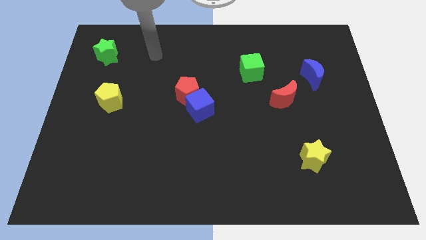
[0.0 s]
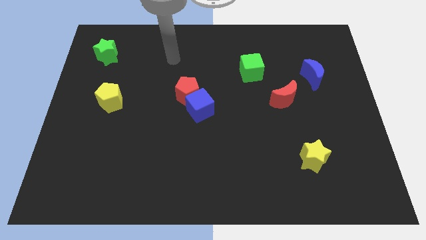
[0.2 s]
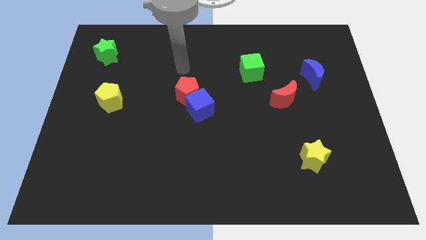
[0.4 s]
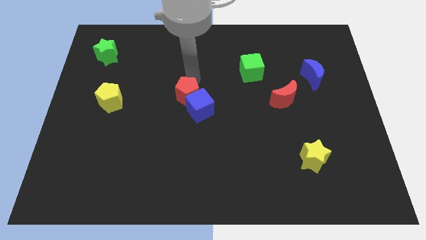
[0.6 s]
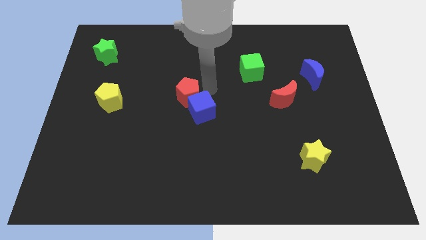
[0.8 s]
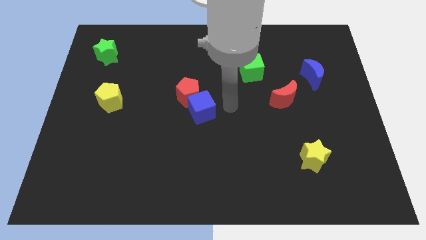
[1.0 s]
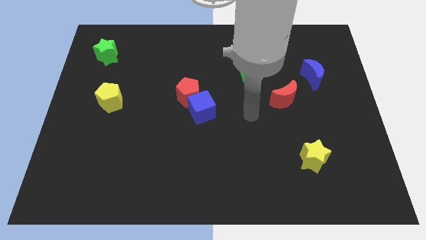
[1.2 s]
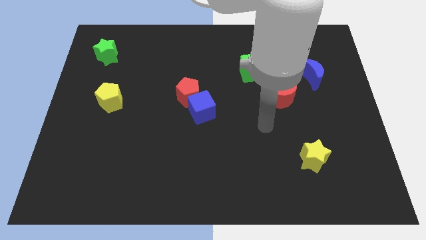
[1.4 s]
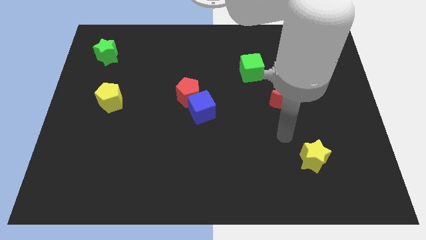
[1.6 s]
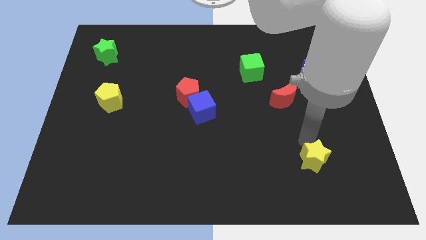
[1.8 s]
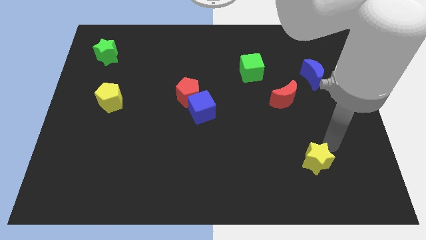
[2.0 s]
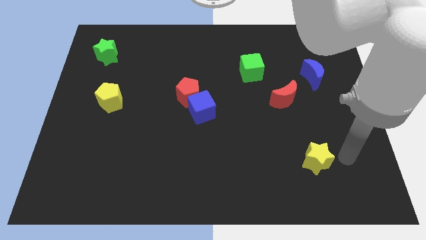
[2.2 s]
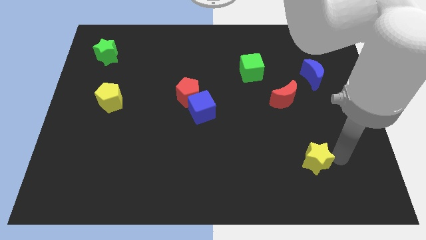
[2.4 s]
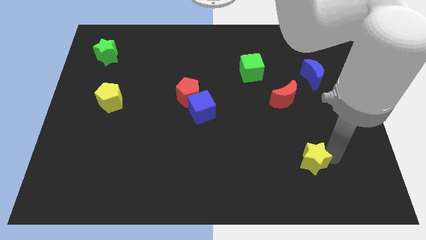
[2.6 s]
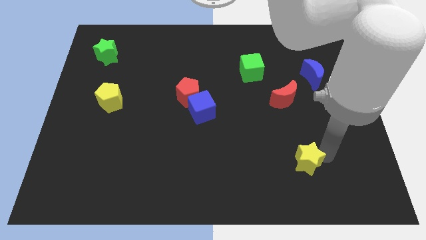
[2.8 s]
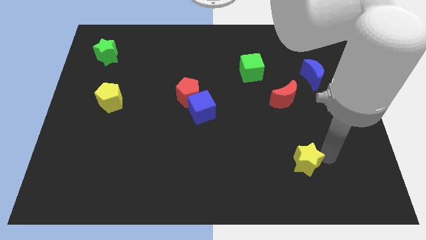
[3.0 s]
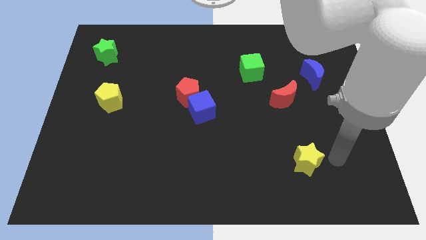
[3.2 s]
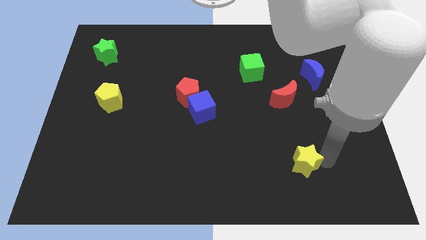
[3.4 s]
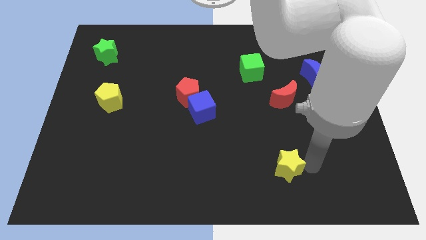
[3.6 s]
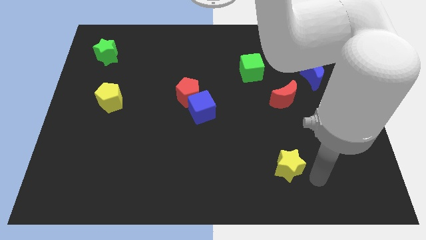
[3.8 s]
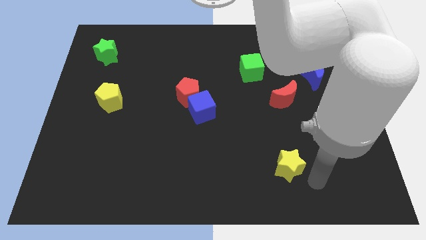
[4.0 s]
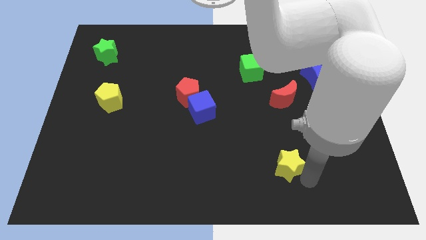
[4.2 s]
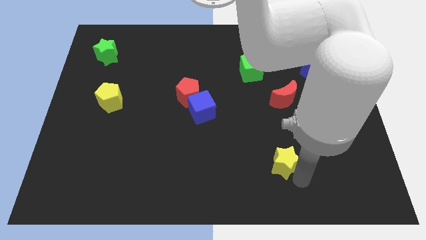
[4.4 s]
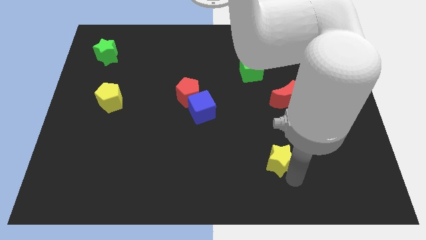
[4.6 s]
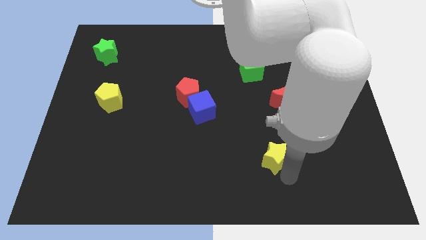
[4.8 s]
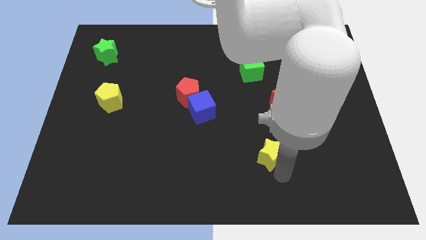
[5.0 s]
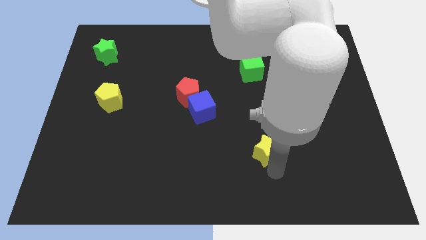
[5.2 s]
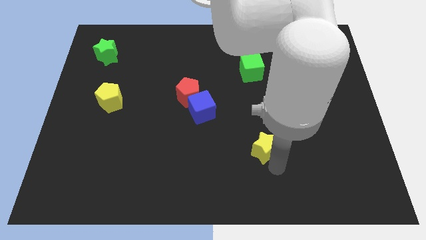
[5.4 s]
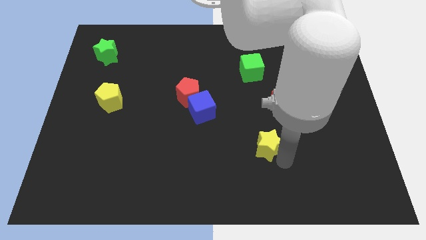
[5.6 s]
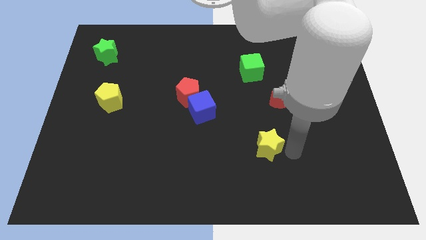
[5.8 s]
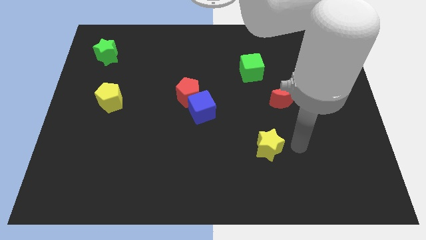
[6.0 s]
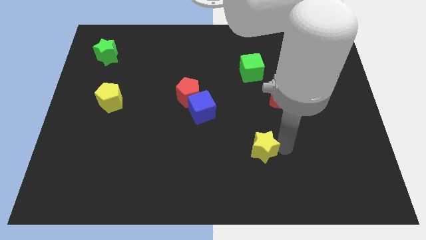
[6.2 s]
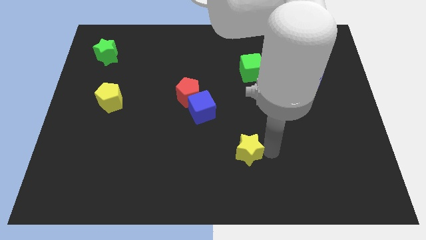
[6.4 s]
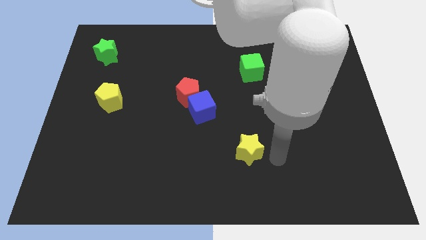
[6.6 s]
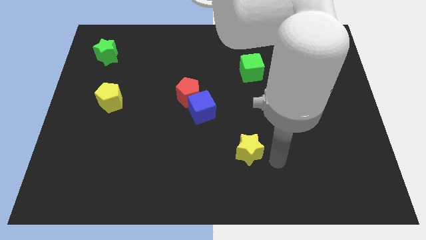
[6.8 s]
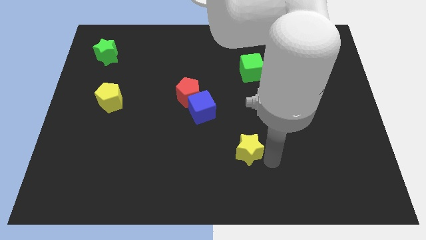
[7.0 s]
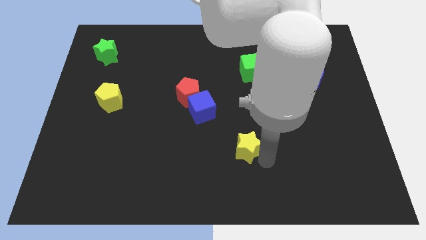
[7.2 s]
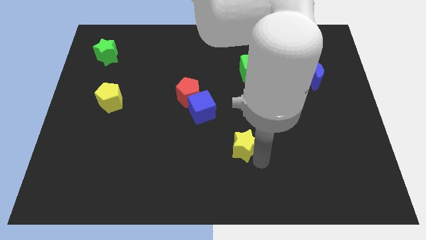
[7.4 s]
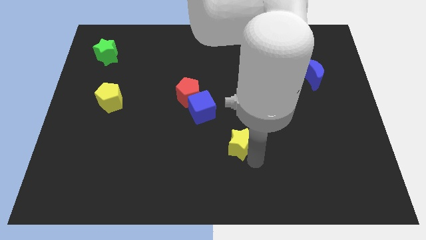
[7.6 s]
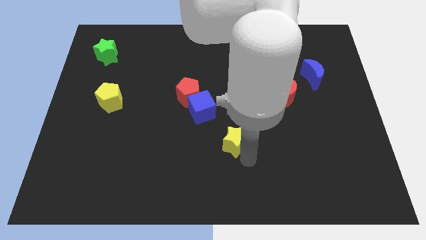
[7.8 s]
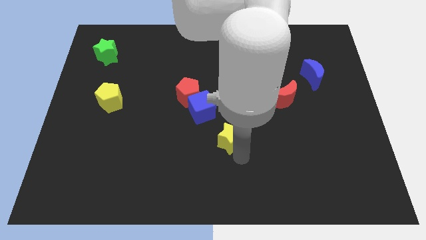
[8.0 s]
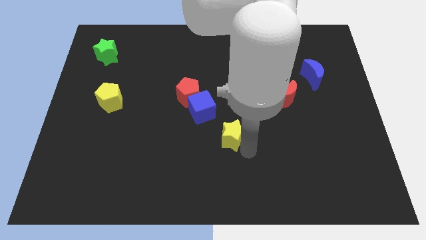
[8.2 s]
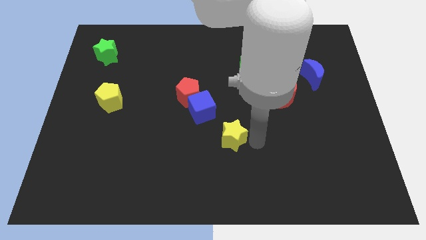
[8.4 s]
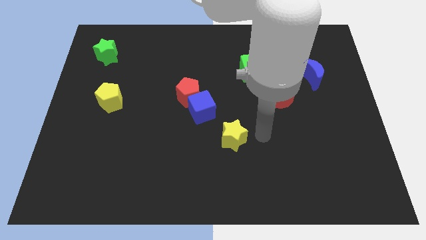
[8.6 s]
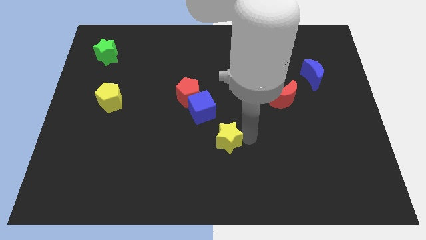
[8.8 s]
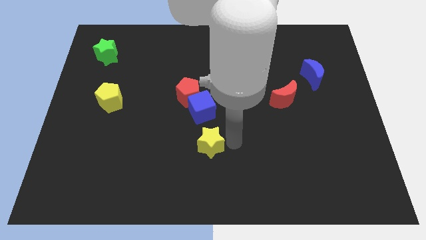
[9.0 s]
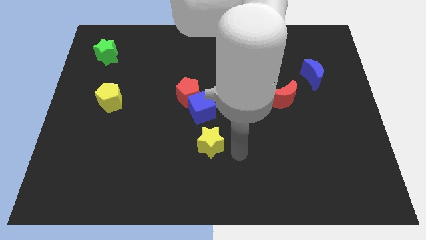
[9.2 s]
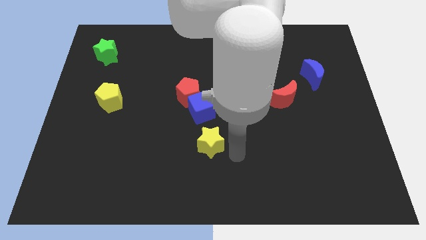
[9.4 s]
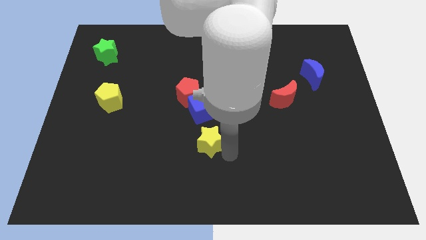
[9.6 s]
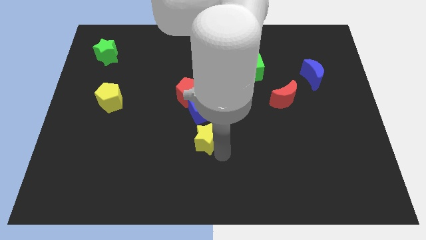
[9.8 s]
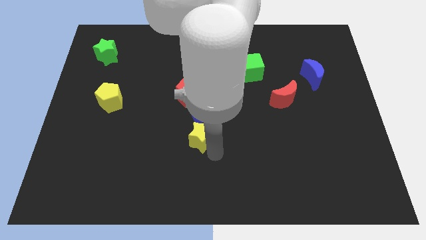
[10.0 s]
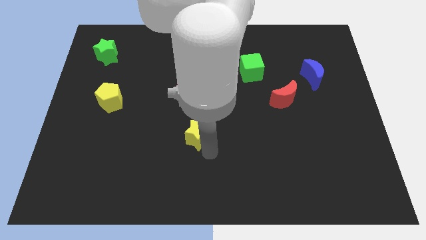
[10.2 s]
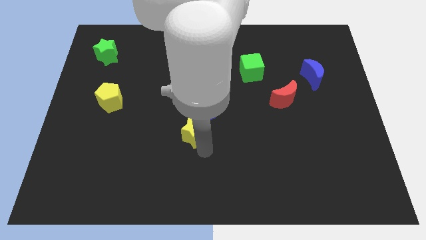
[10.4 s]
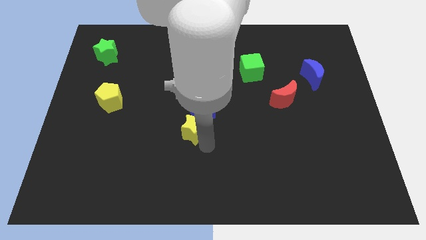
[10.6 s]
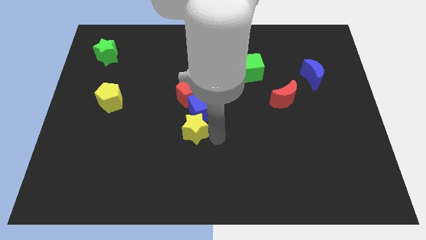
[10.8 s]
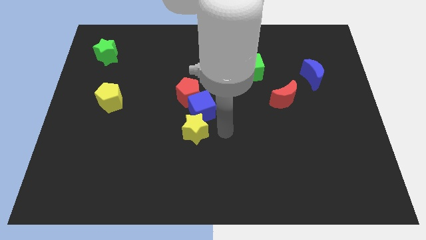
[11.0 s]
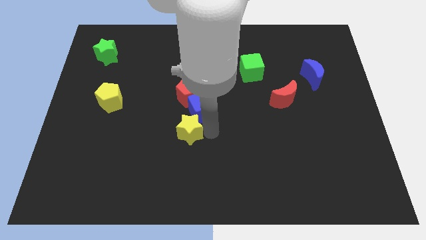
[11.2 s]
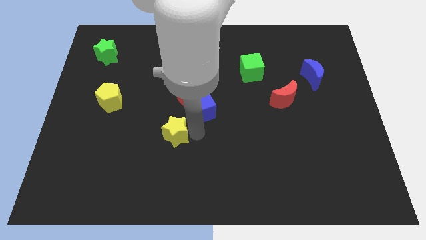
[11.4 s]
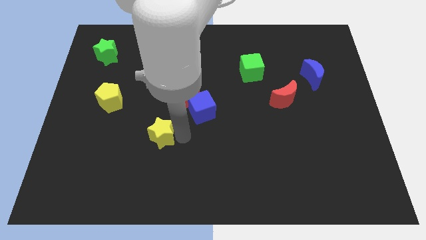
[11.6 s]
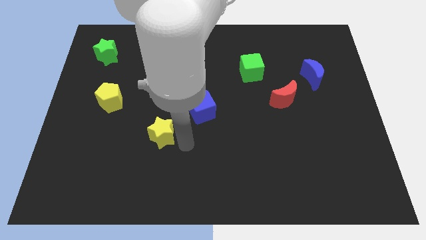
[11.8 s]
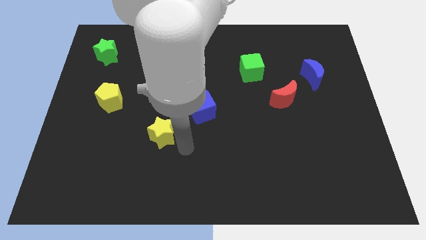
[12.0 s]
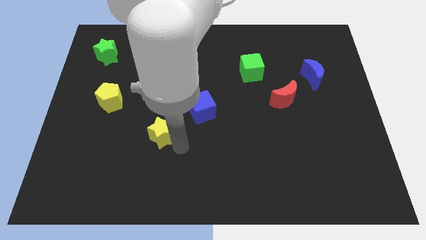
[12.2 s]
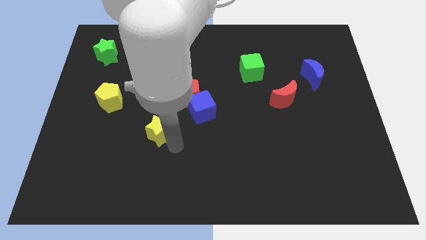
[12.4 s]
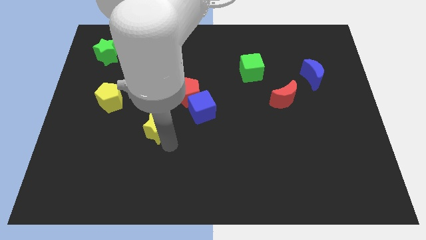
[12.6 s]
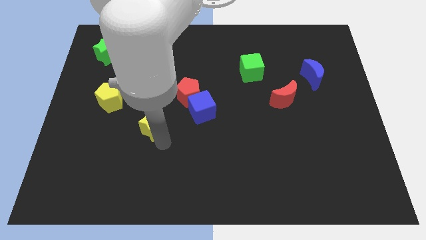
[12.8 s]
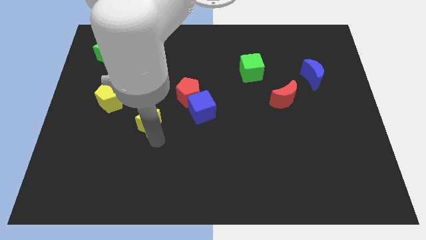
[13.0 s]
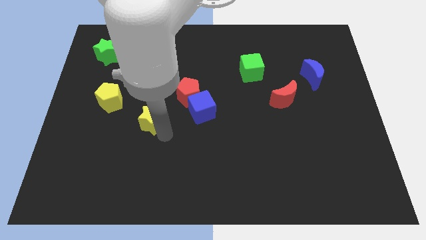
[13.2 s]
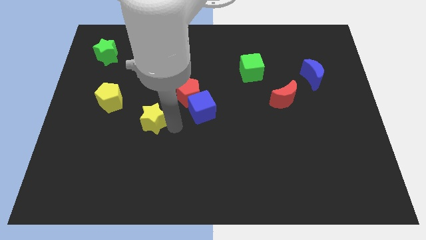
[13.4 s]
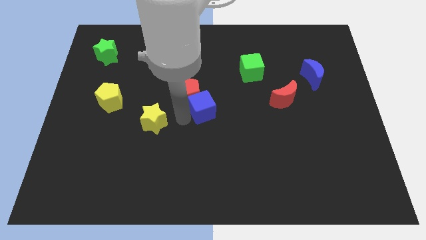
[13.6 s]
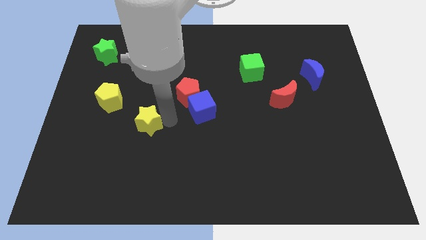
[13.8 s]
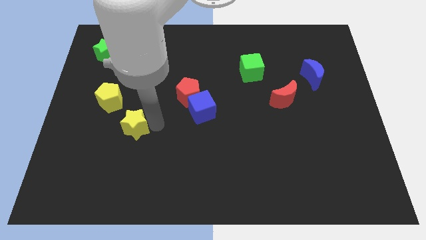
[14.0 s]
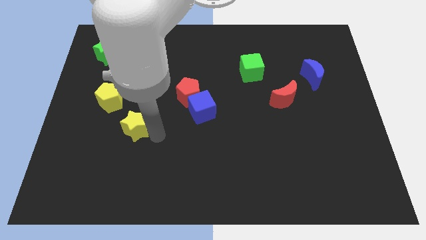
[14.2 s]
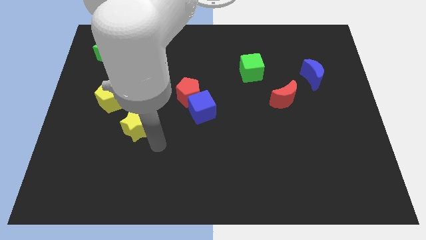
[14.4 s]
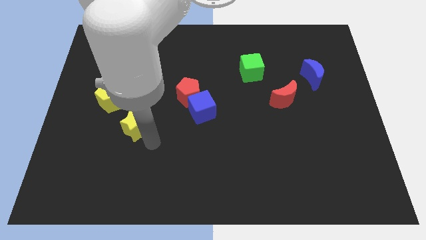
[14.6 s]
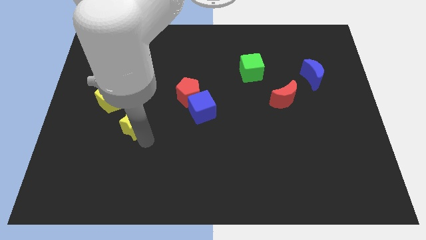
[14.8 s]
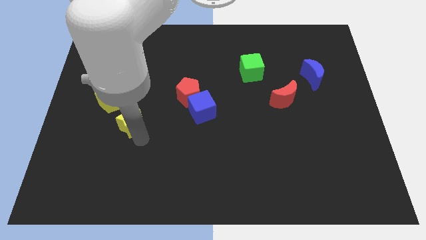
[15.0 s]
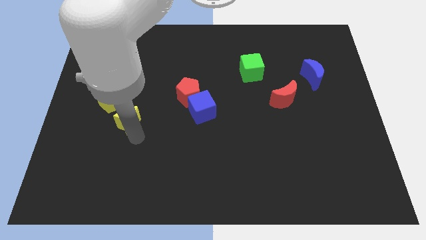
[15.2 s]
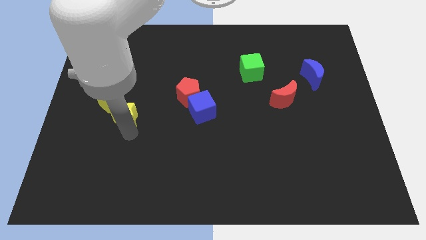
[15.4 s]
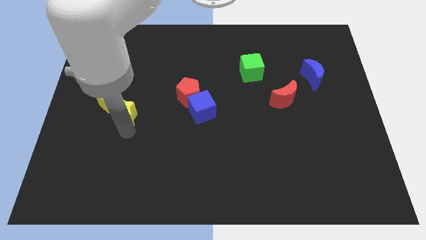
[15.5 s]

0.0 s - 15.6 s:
put the yellow star to the yellow pentagon
